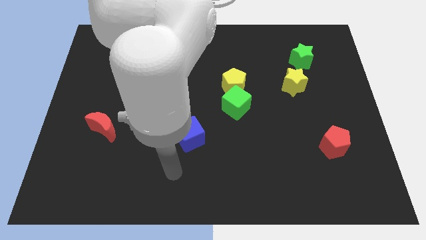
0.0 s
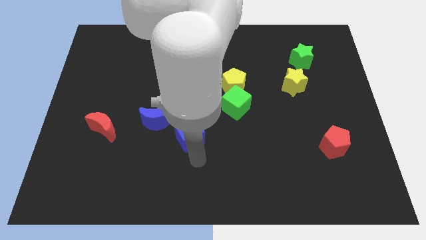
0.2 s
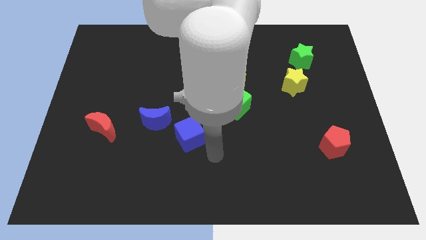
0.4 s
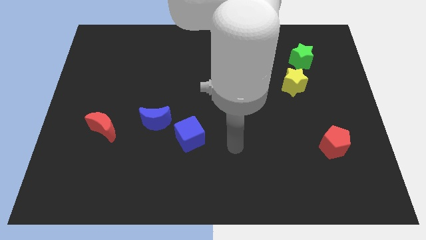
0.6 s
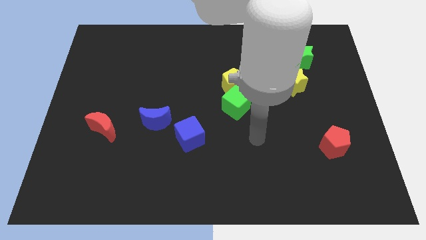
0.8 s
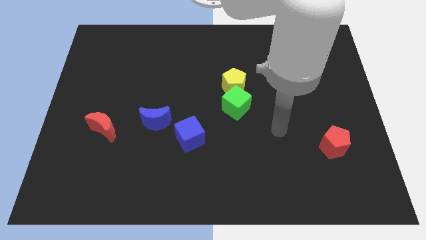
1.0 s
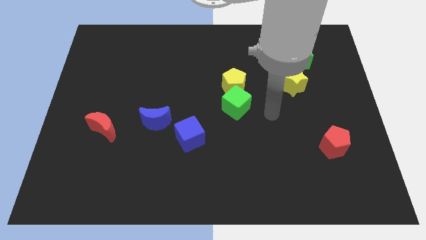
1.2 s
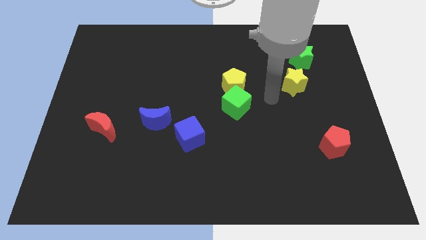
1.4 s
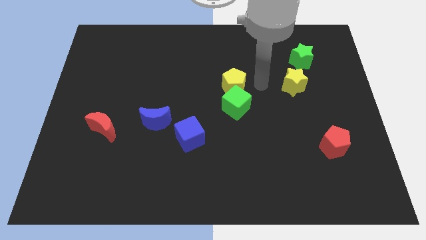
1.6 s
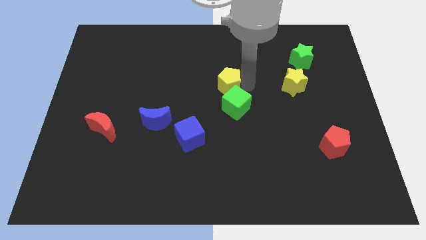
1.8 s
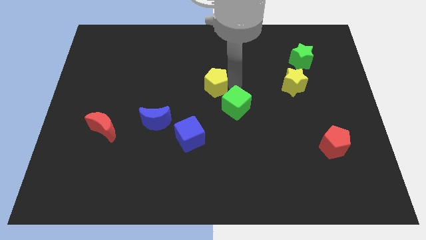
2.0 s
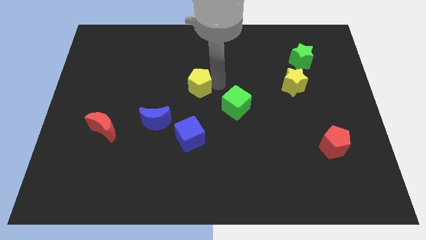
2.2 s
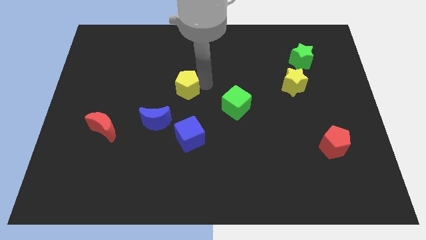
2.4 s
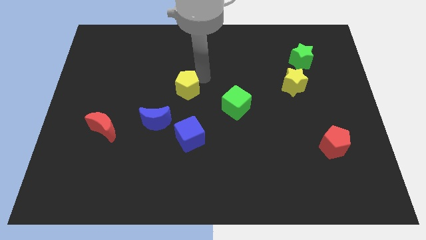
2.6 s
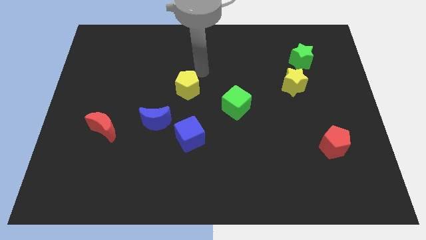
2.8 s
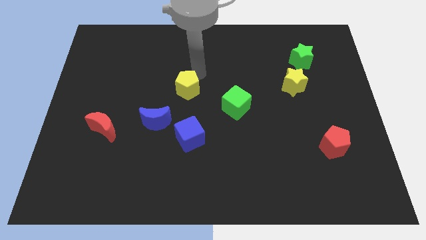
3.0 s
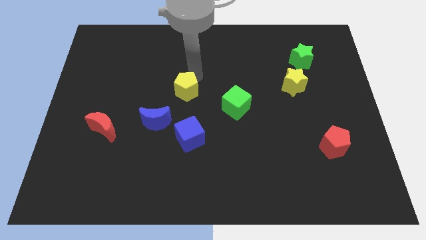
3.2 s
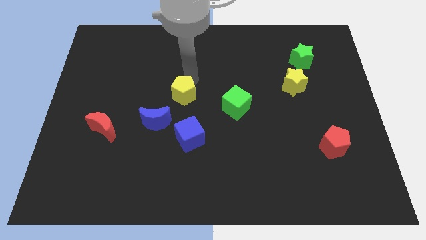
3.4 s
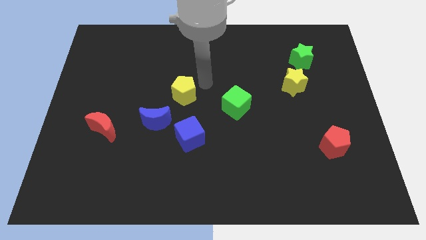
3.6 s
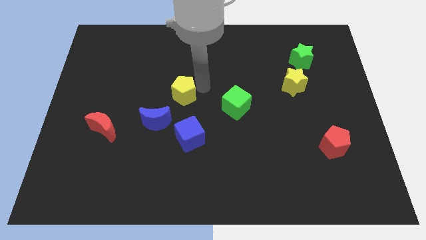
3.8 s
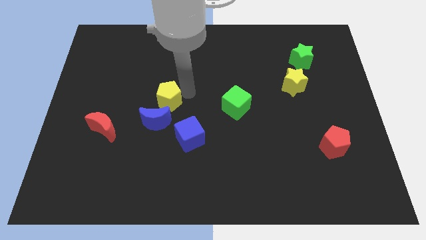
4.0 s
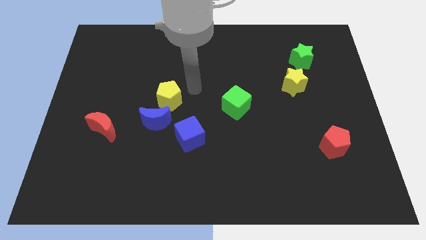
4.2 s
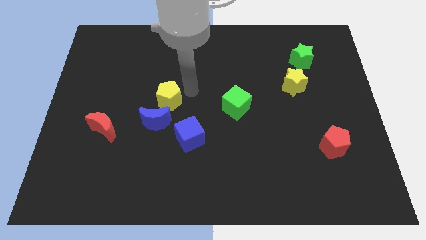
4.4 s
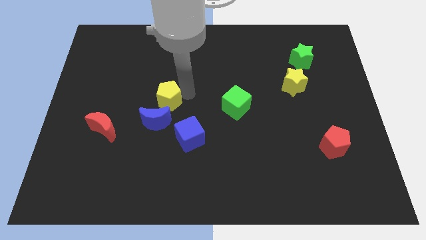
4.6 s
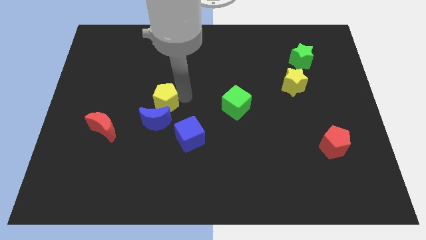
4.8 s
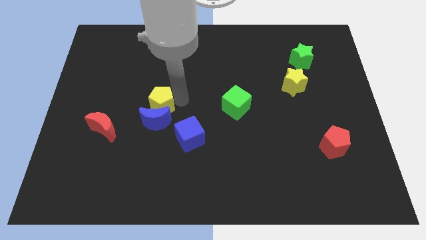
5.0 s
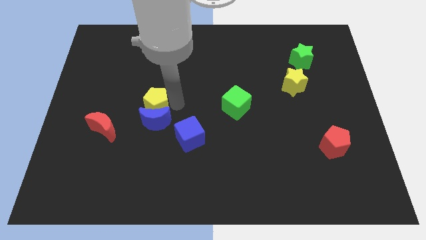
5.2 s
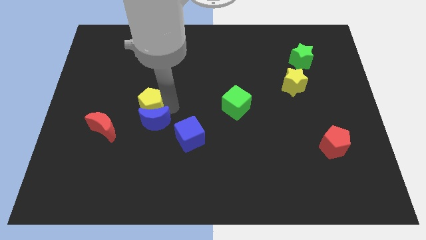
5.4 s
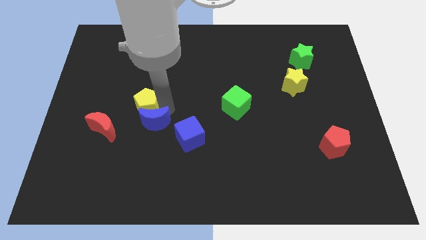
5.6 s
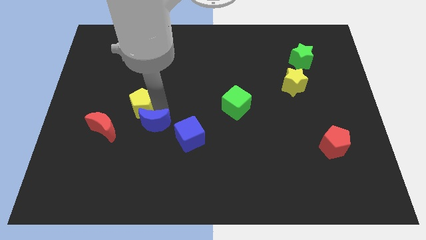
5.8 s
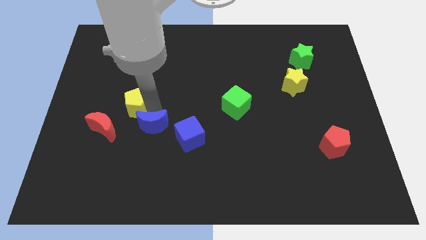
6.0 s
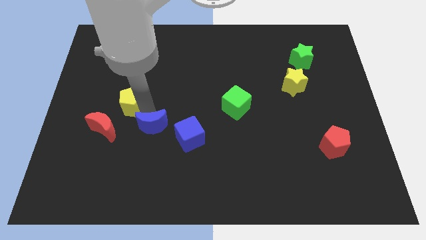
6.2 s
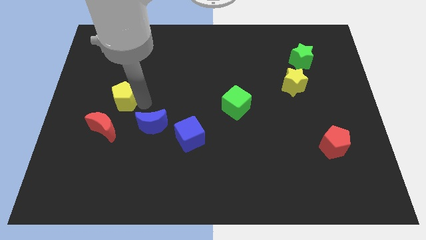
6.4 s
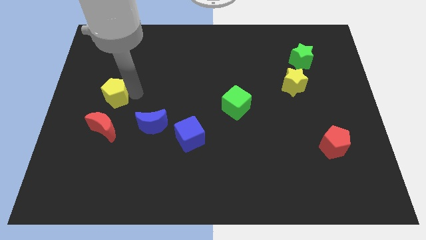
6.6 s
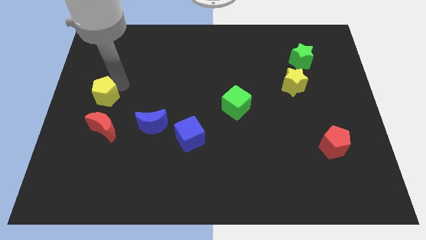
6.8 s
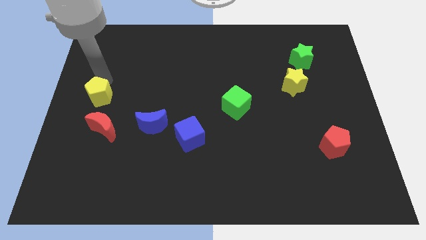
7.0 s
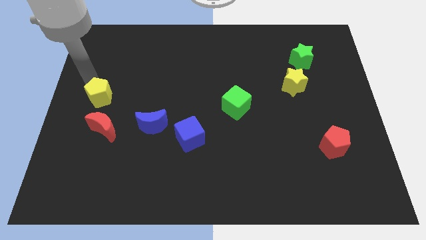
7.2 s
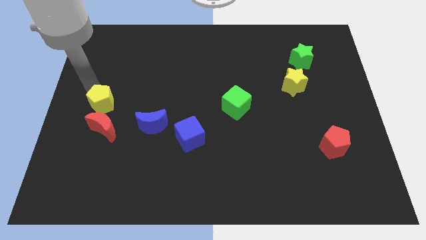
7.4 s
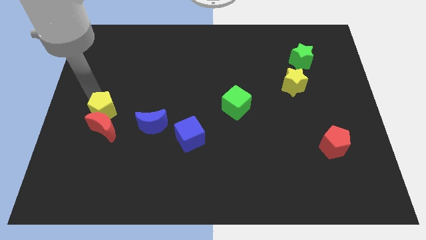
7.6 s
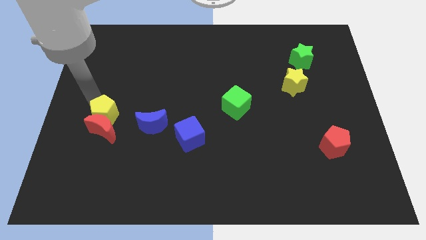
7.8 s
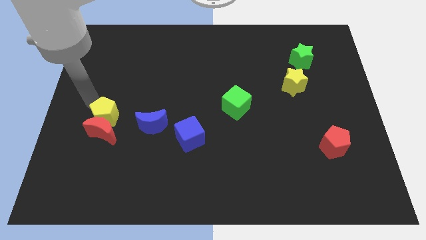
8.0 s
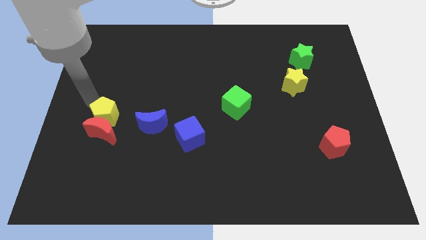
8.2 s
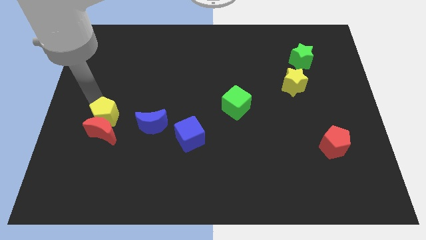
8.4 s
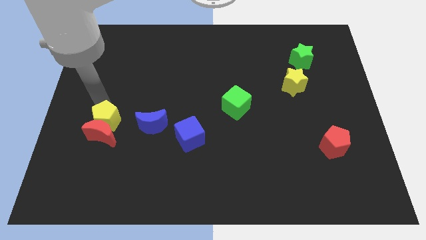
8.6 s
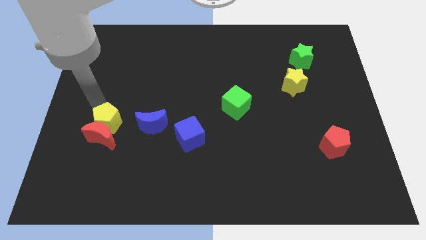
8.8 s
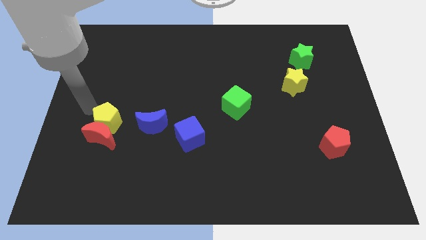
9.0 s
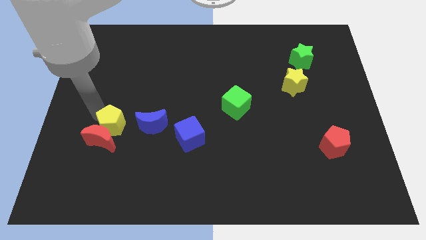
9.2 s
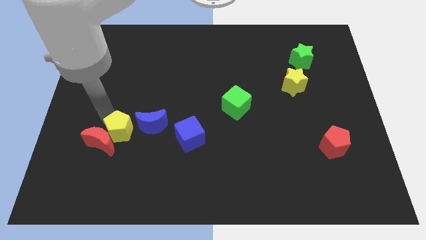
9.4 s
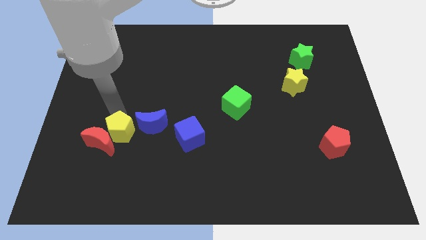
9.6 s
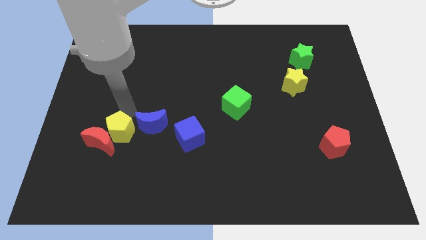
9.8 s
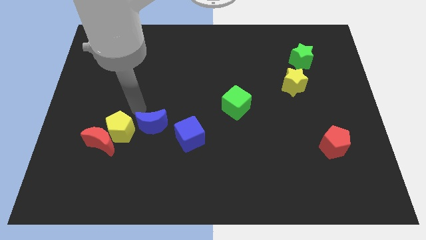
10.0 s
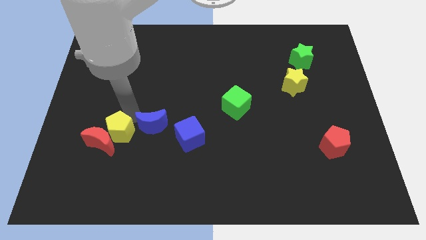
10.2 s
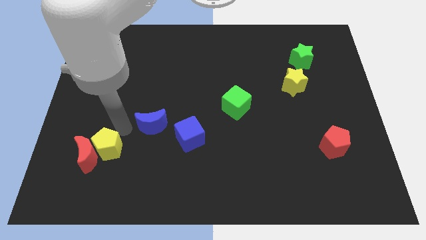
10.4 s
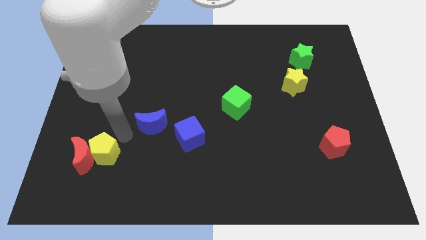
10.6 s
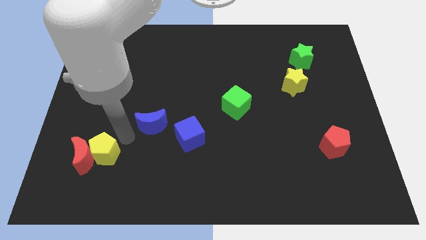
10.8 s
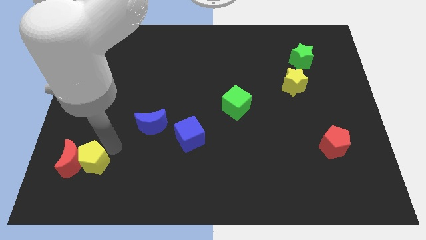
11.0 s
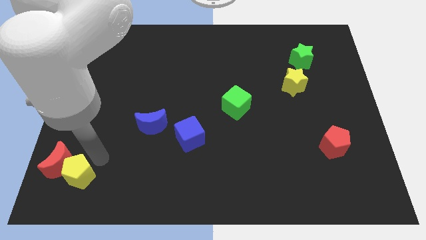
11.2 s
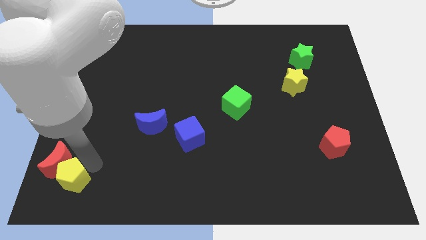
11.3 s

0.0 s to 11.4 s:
put the yellow pentagon to the bottom left of the board

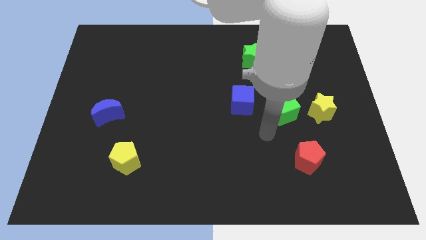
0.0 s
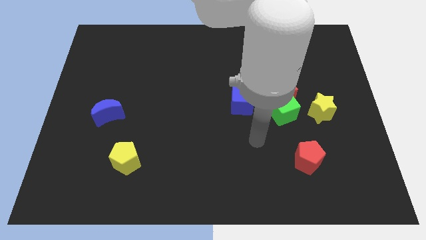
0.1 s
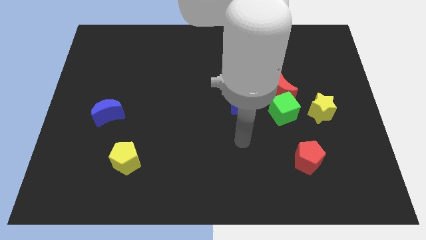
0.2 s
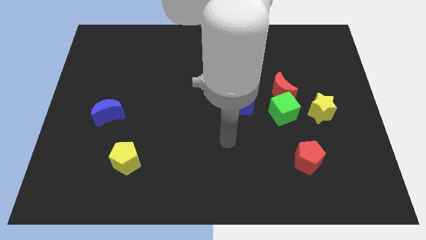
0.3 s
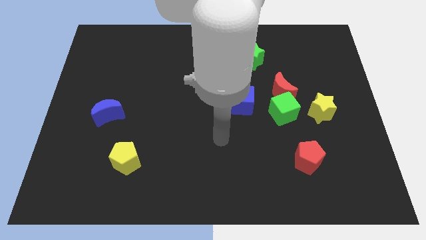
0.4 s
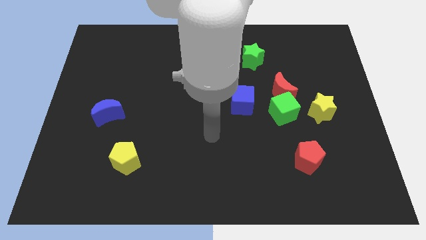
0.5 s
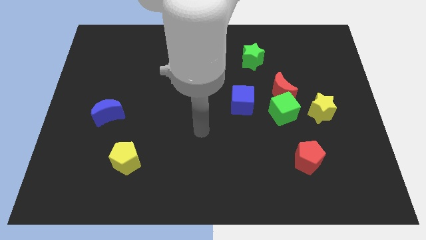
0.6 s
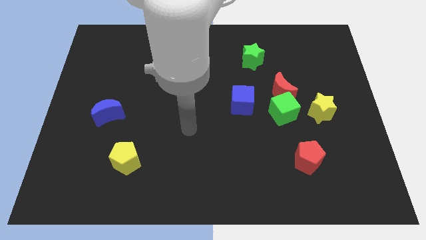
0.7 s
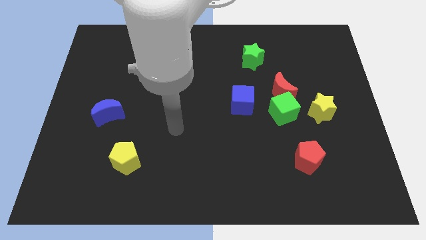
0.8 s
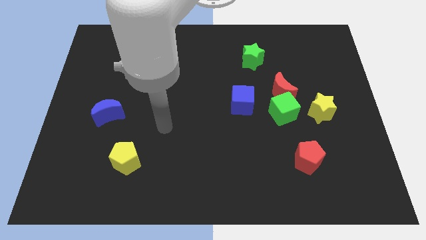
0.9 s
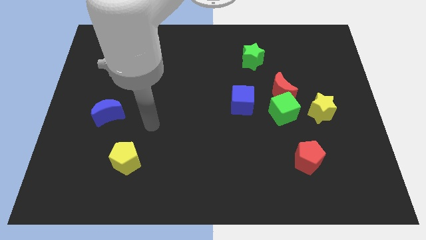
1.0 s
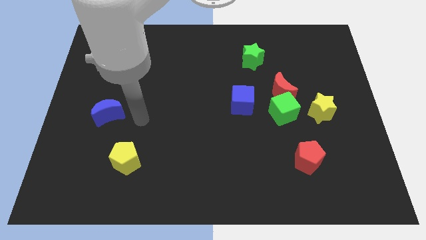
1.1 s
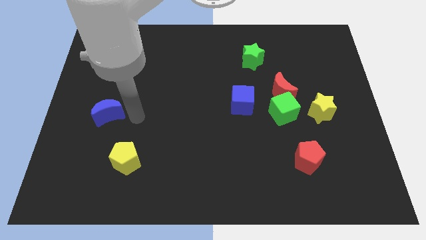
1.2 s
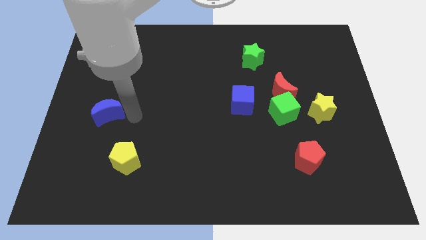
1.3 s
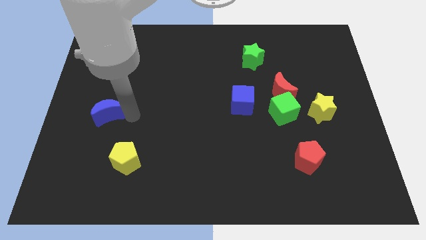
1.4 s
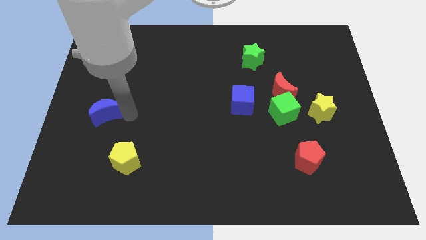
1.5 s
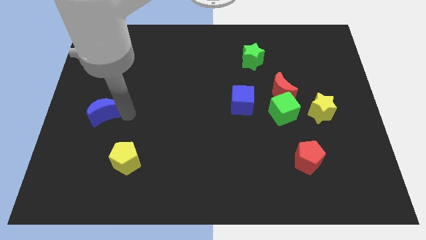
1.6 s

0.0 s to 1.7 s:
put the blue moon to the left side
